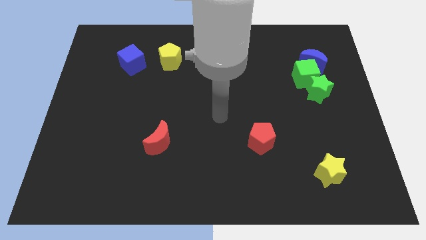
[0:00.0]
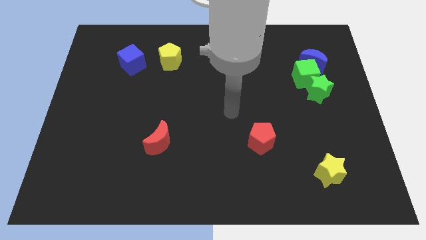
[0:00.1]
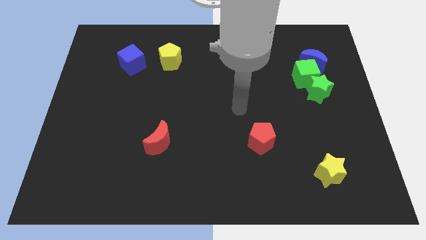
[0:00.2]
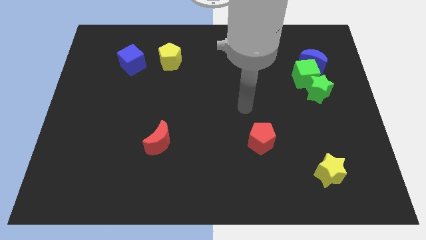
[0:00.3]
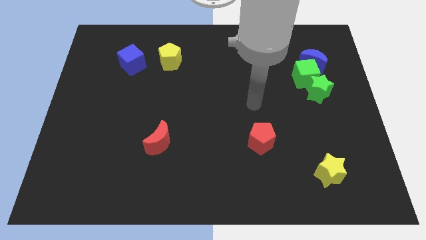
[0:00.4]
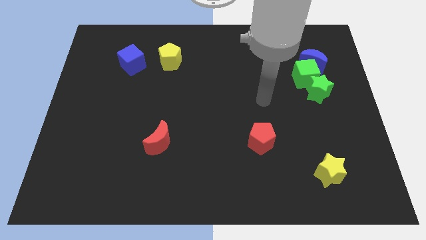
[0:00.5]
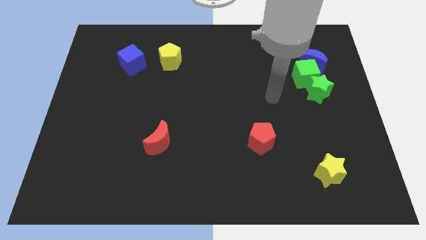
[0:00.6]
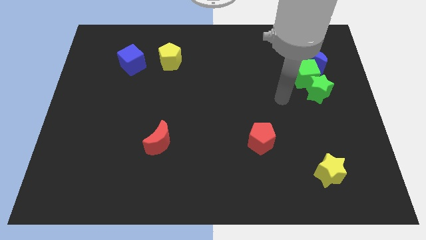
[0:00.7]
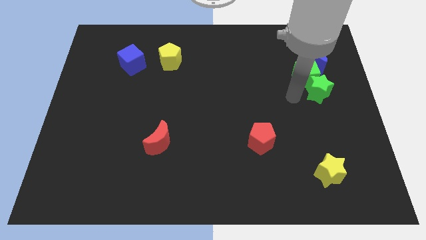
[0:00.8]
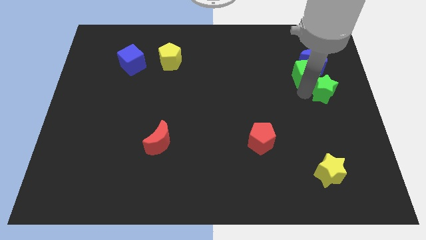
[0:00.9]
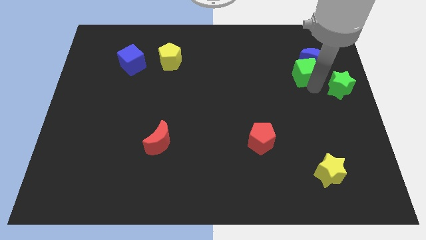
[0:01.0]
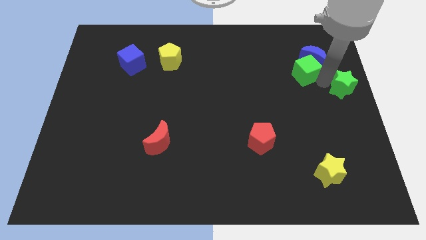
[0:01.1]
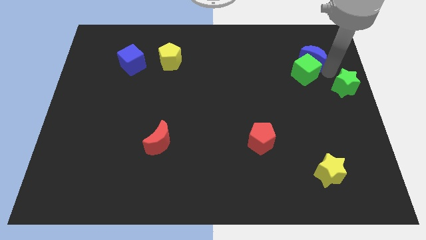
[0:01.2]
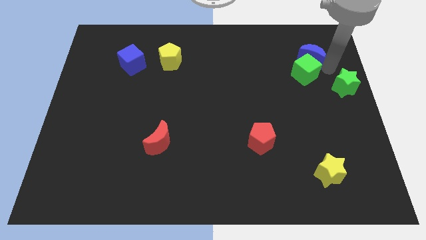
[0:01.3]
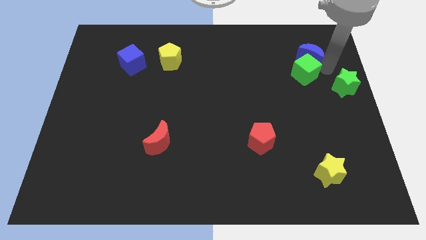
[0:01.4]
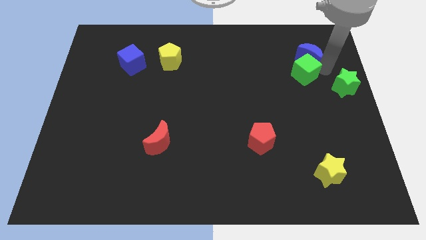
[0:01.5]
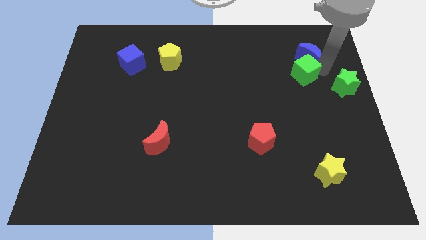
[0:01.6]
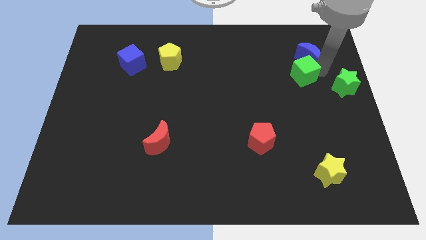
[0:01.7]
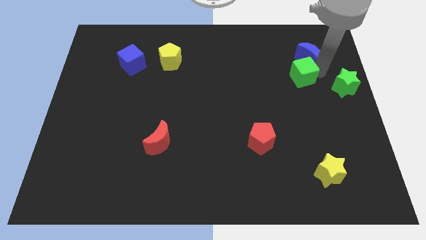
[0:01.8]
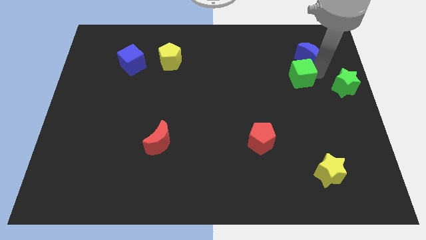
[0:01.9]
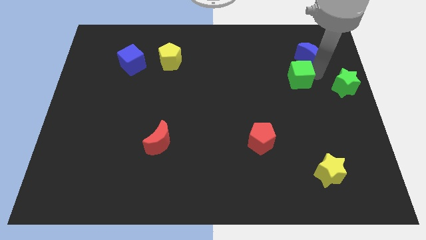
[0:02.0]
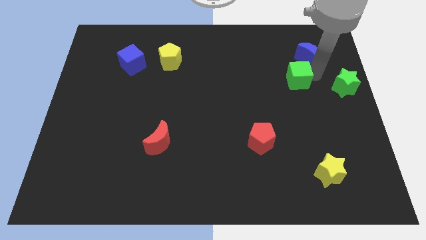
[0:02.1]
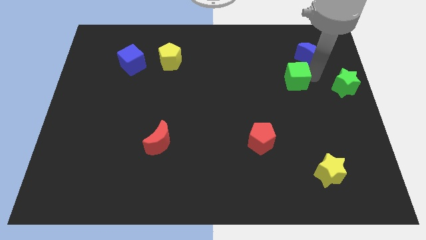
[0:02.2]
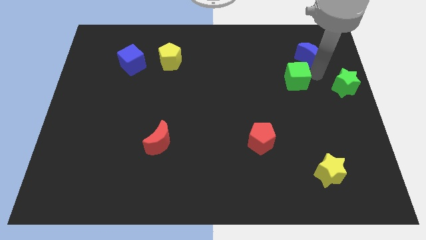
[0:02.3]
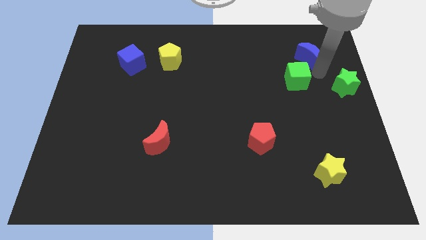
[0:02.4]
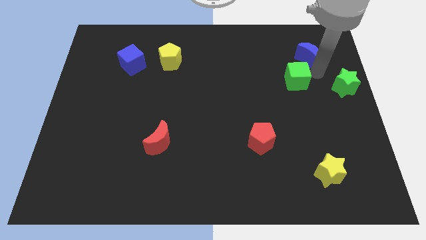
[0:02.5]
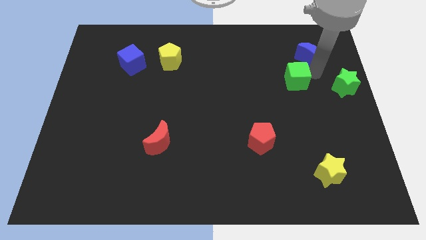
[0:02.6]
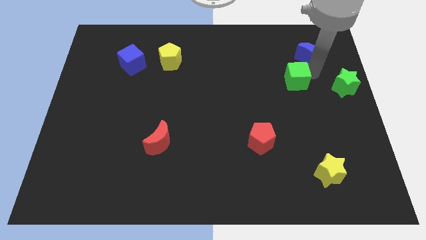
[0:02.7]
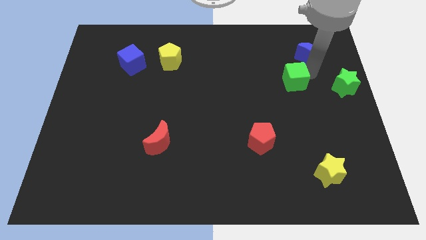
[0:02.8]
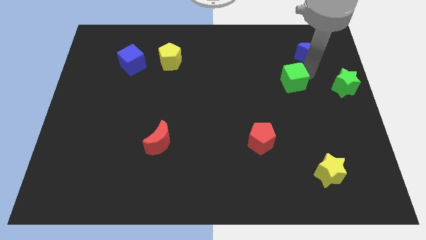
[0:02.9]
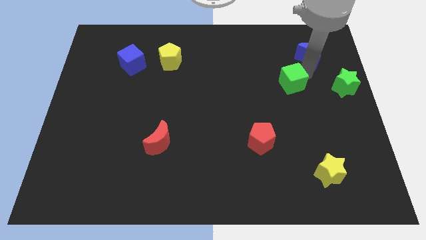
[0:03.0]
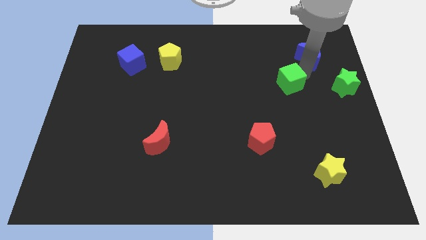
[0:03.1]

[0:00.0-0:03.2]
pull the green cube apart from the blue moon and green star

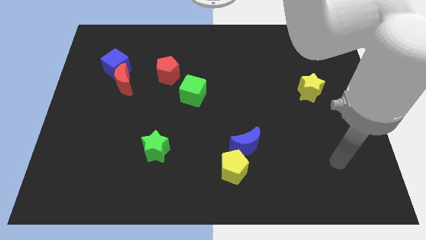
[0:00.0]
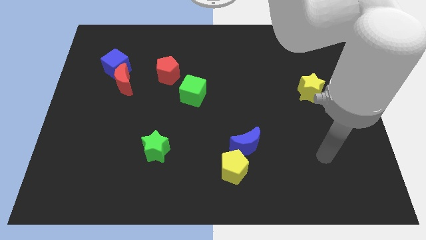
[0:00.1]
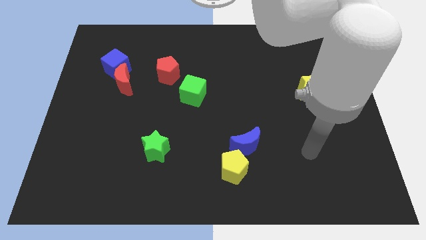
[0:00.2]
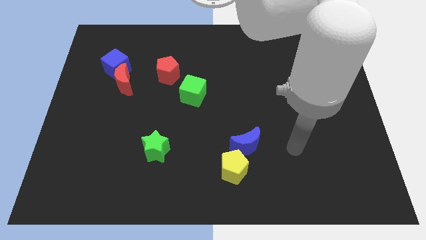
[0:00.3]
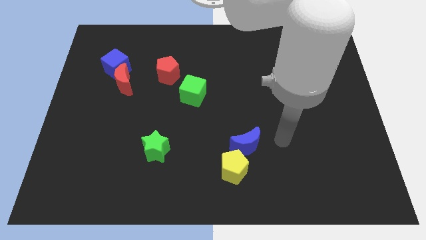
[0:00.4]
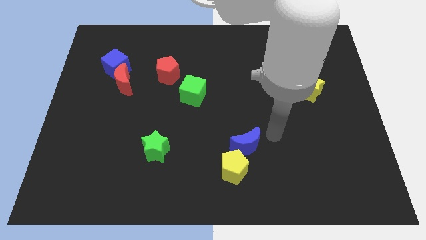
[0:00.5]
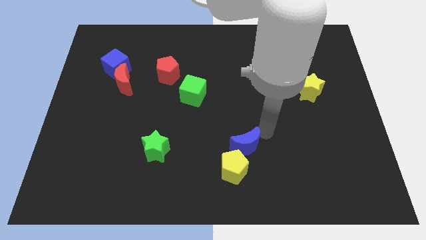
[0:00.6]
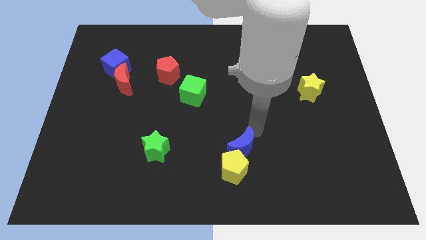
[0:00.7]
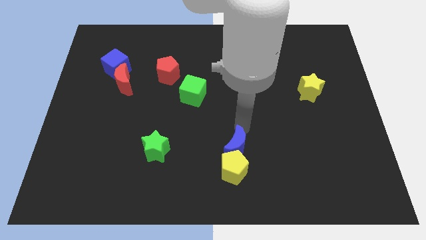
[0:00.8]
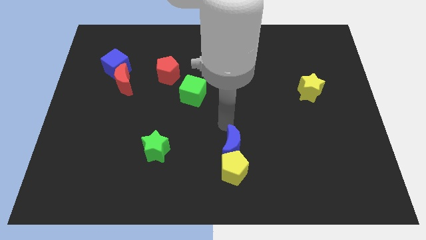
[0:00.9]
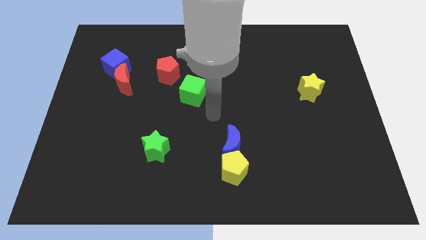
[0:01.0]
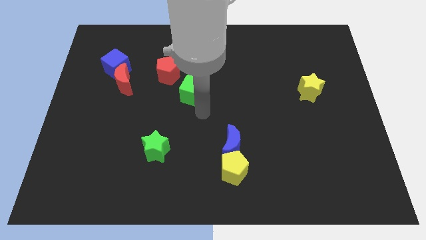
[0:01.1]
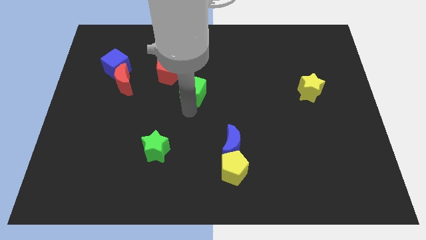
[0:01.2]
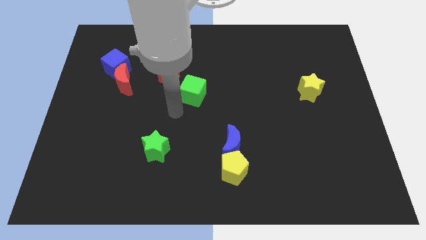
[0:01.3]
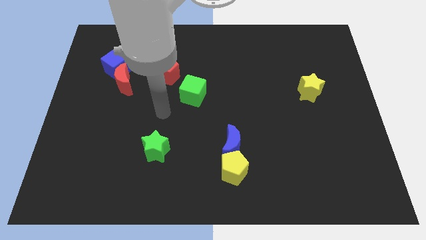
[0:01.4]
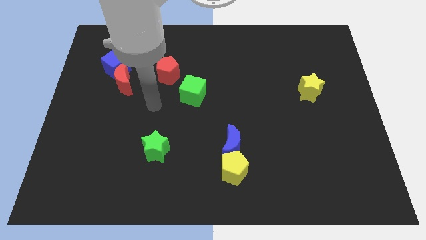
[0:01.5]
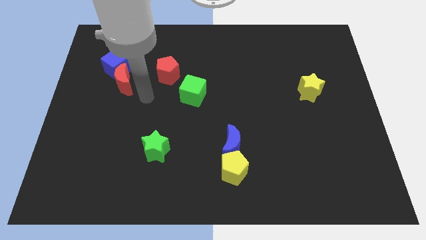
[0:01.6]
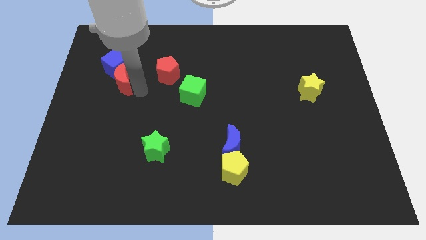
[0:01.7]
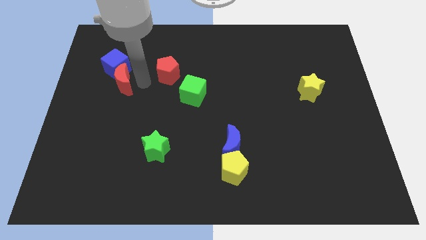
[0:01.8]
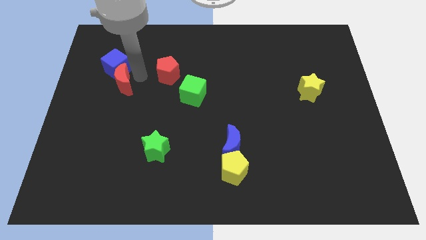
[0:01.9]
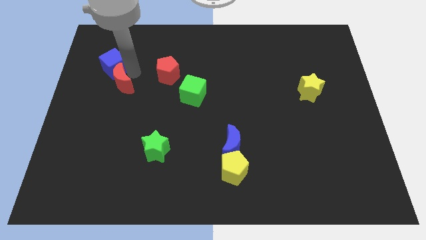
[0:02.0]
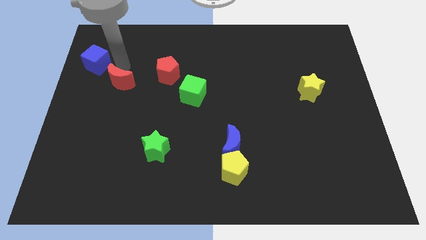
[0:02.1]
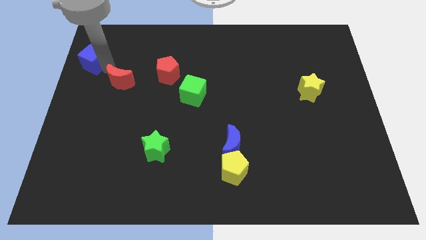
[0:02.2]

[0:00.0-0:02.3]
pull the red moon apart from the blue cube

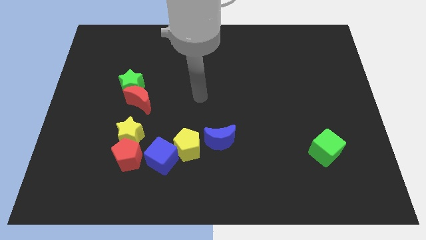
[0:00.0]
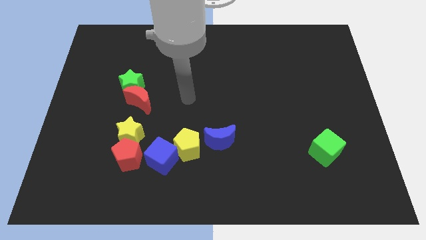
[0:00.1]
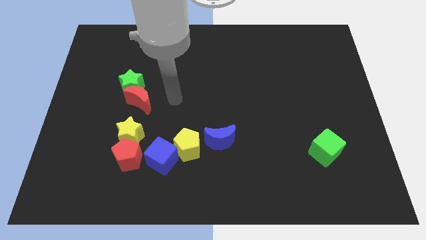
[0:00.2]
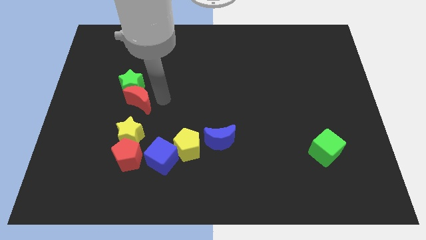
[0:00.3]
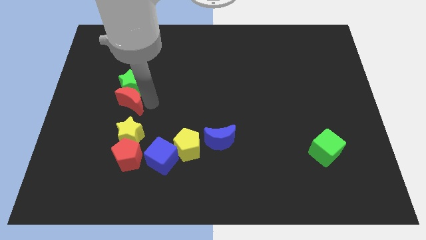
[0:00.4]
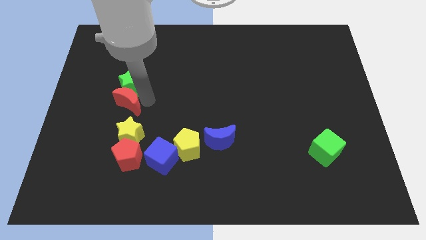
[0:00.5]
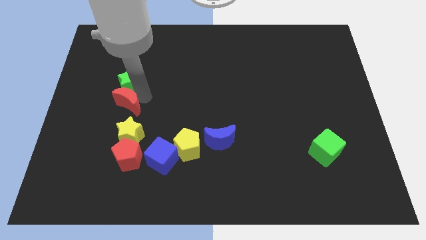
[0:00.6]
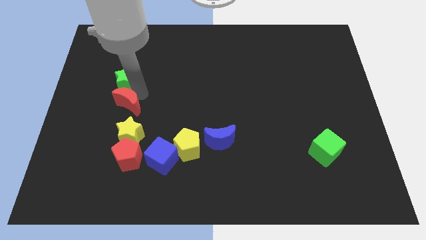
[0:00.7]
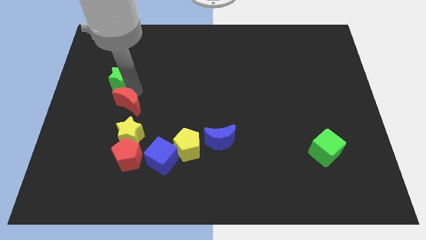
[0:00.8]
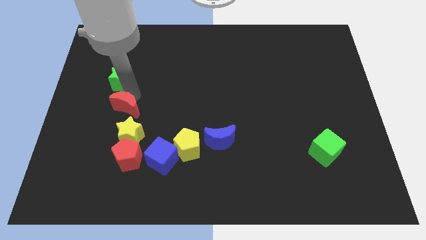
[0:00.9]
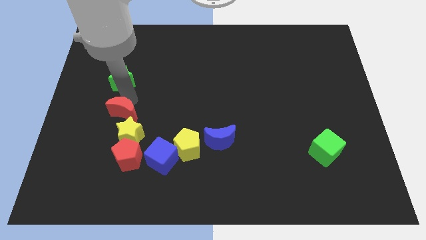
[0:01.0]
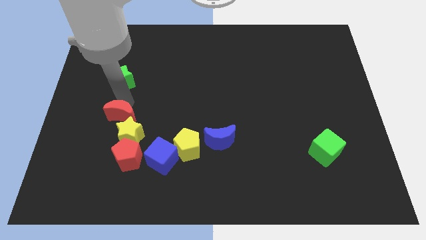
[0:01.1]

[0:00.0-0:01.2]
move the green star away from the red moon

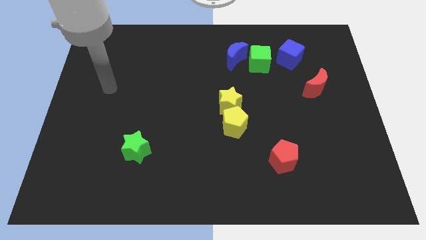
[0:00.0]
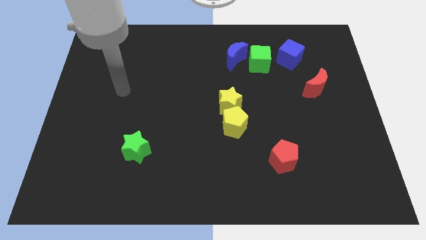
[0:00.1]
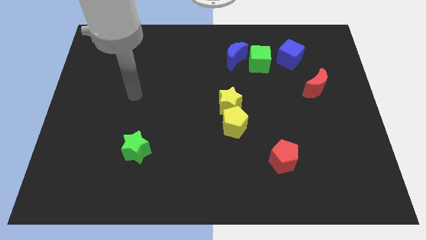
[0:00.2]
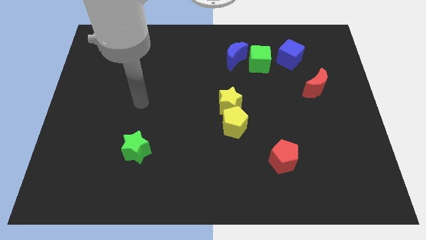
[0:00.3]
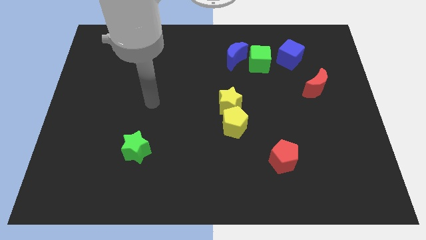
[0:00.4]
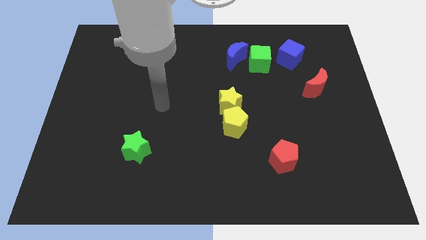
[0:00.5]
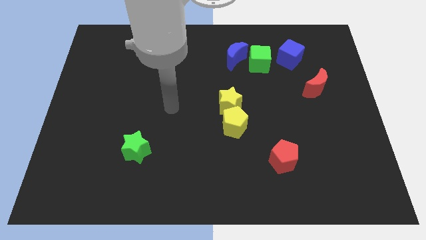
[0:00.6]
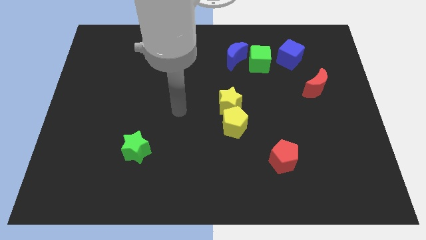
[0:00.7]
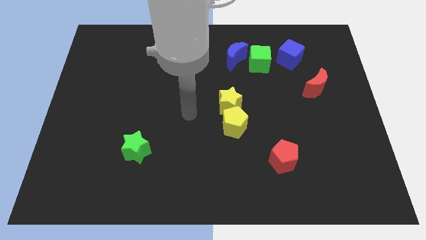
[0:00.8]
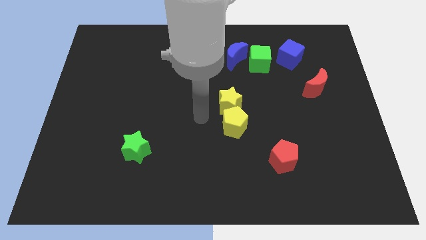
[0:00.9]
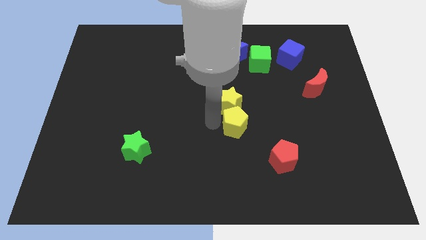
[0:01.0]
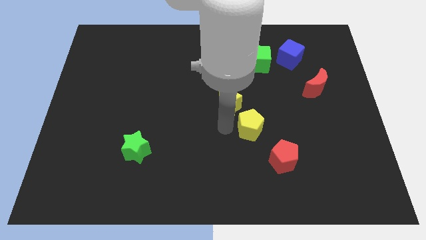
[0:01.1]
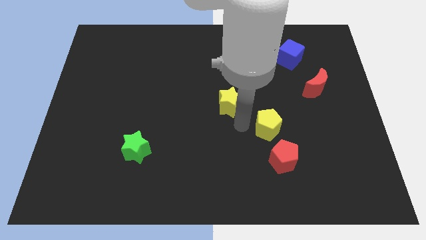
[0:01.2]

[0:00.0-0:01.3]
move the yellow star away from the yellow pentagon

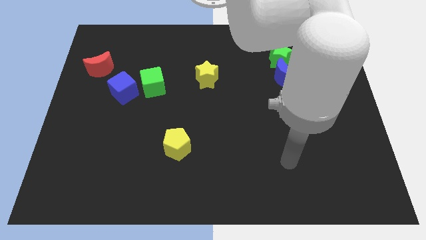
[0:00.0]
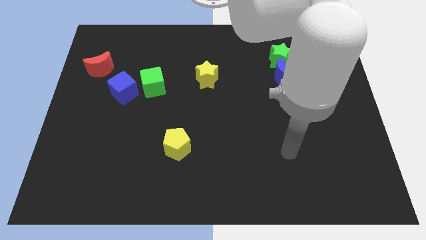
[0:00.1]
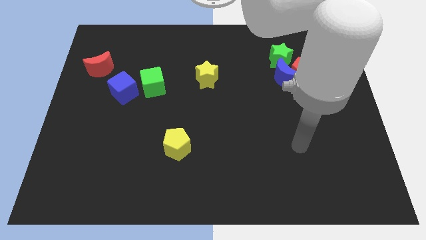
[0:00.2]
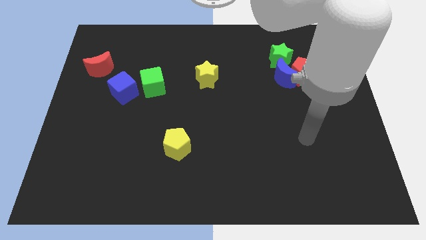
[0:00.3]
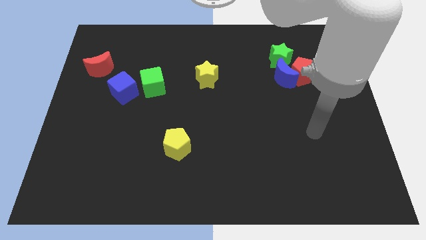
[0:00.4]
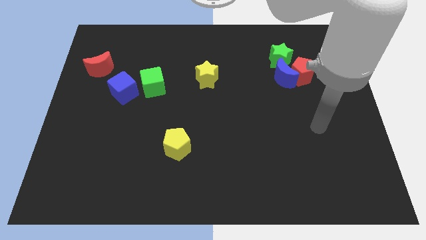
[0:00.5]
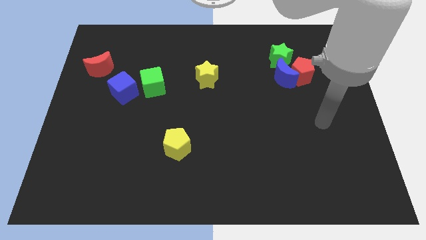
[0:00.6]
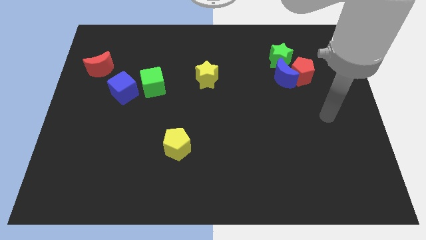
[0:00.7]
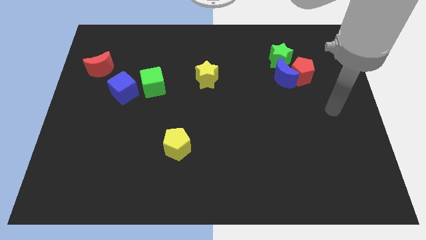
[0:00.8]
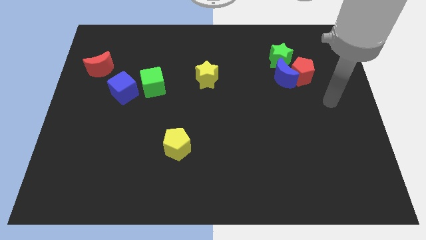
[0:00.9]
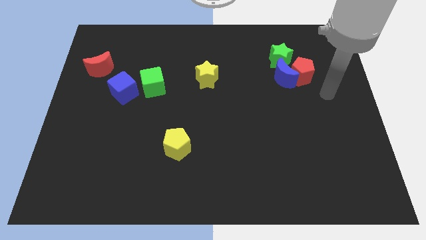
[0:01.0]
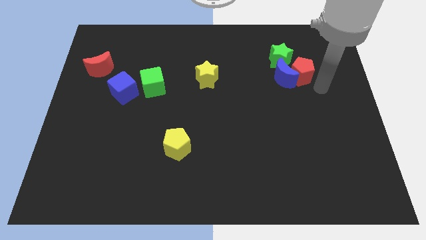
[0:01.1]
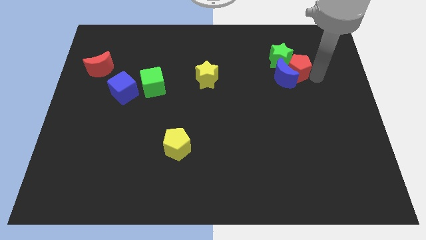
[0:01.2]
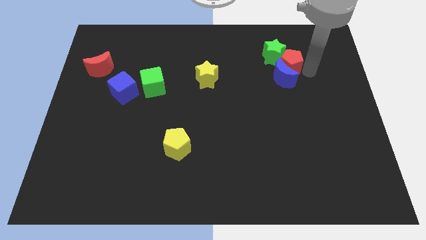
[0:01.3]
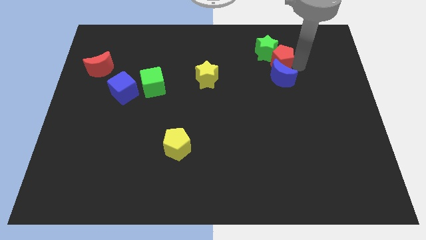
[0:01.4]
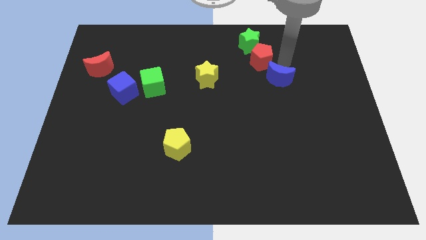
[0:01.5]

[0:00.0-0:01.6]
separate the blue moon from the red pentagon and green star
